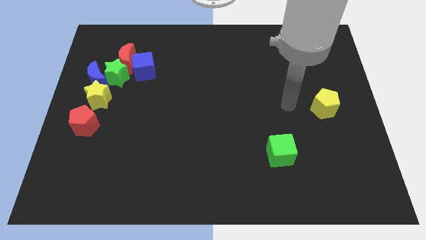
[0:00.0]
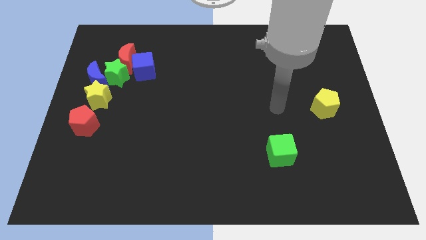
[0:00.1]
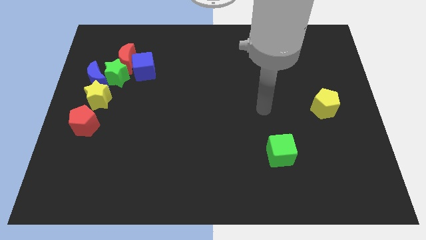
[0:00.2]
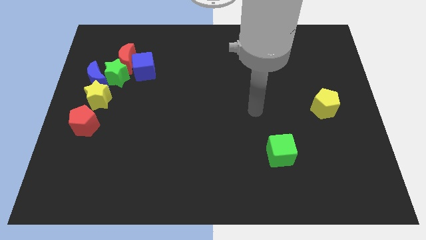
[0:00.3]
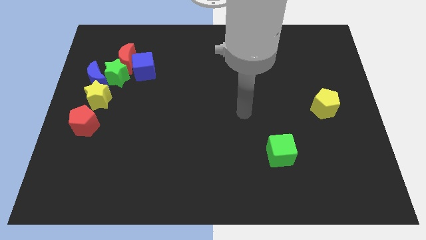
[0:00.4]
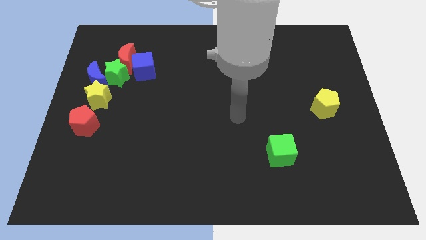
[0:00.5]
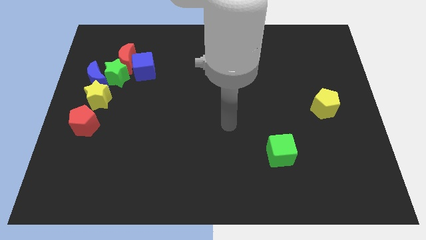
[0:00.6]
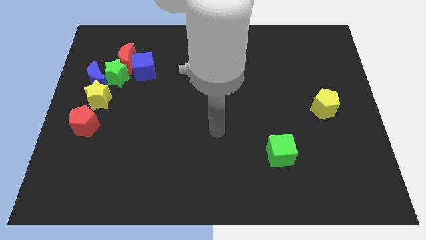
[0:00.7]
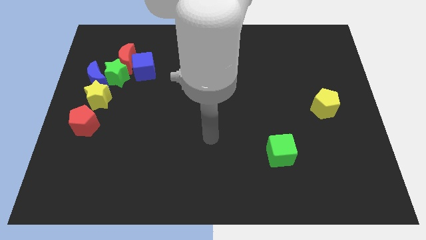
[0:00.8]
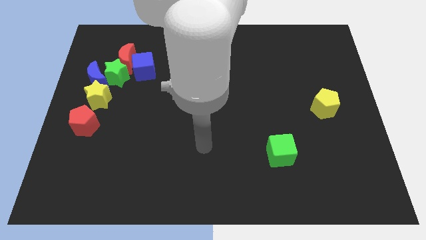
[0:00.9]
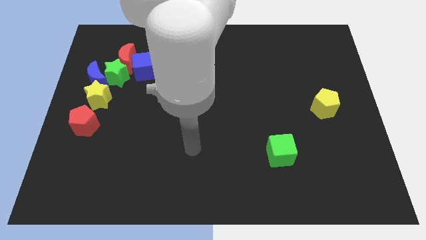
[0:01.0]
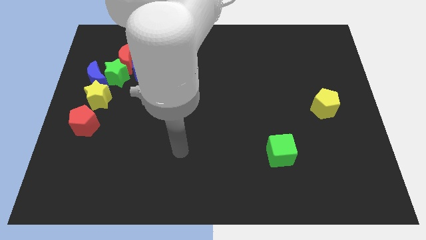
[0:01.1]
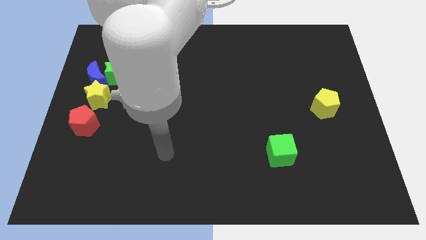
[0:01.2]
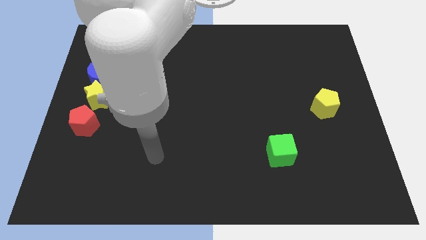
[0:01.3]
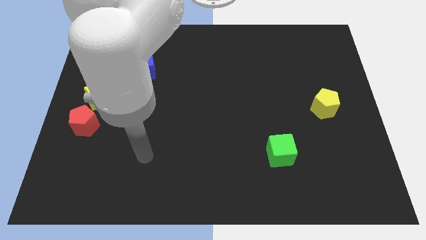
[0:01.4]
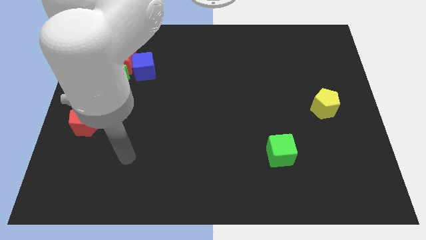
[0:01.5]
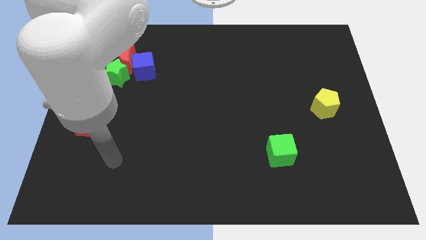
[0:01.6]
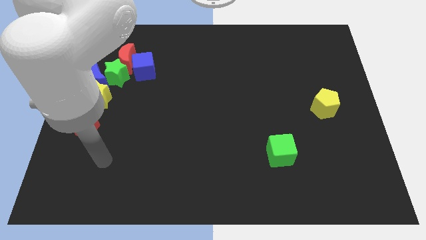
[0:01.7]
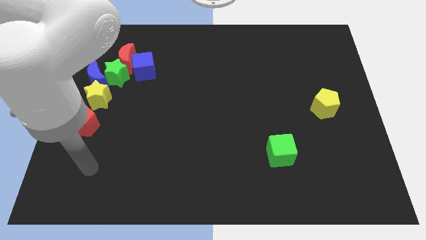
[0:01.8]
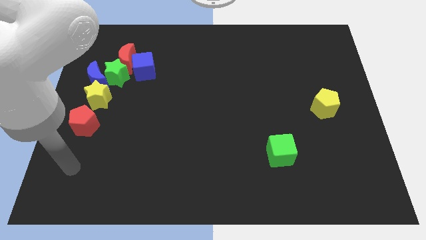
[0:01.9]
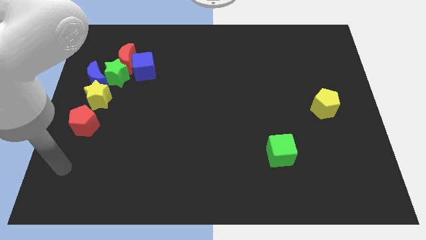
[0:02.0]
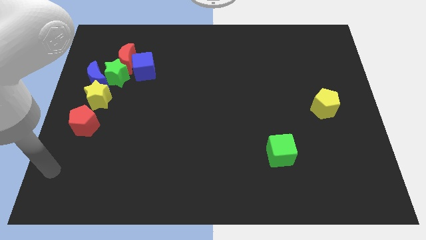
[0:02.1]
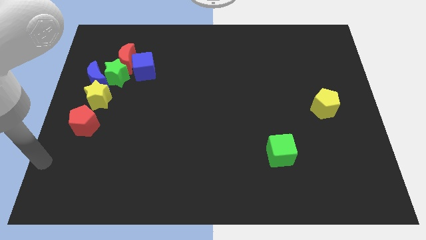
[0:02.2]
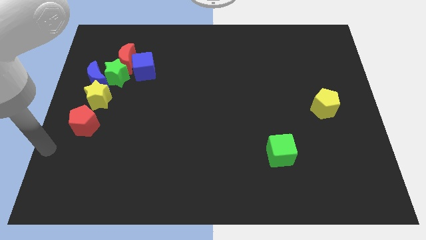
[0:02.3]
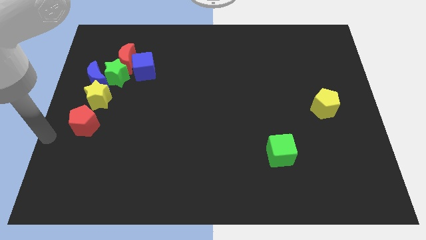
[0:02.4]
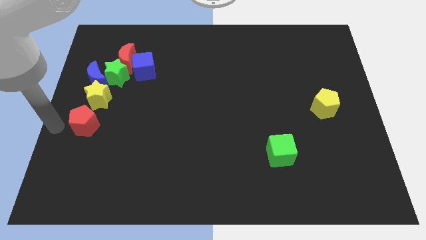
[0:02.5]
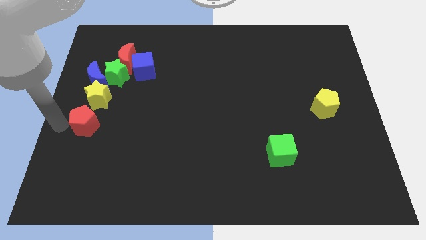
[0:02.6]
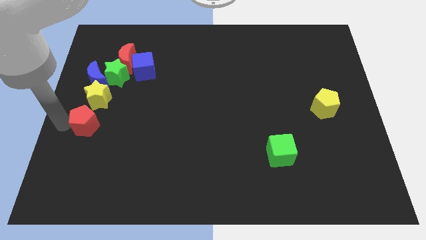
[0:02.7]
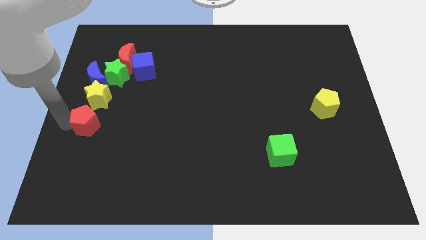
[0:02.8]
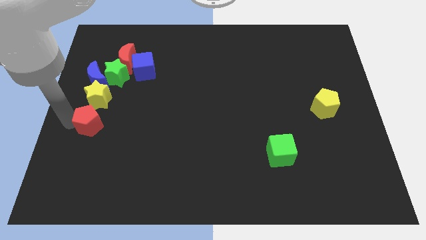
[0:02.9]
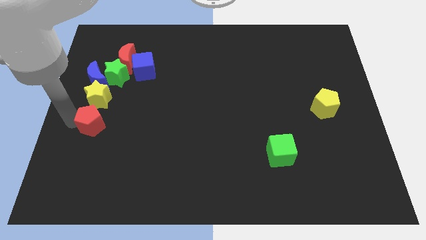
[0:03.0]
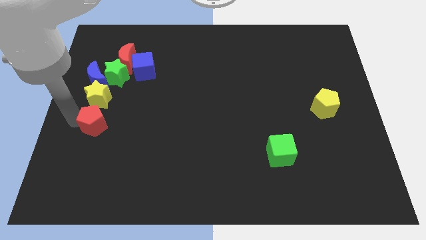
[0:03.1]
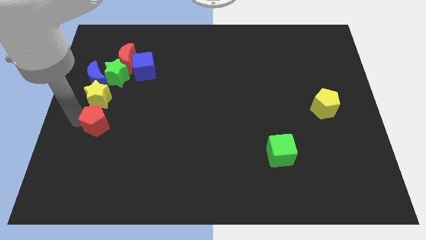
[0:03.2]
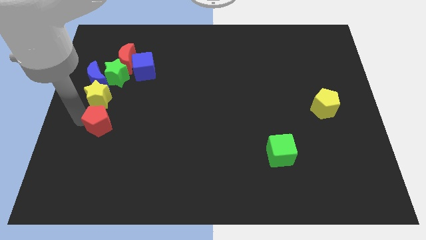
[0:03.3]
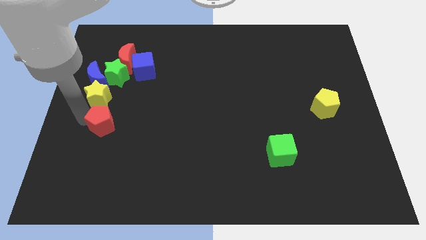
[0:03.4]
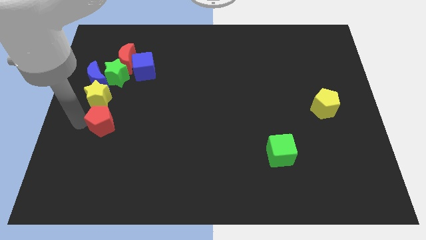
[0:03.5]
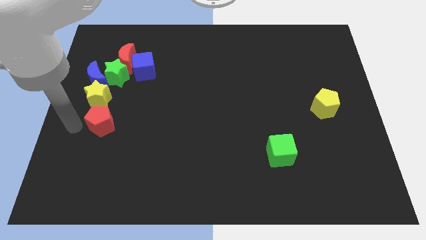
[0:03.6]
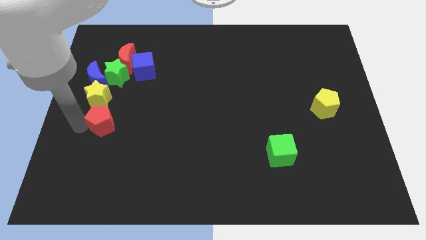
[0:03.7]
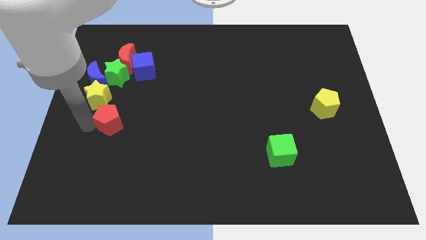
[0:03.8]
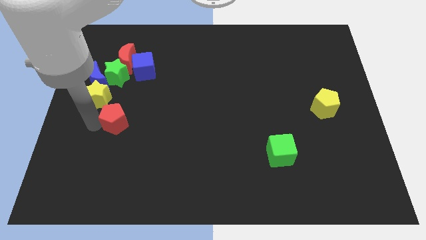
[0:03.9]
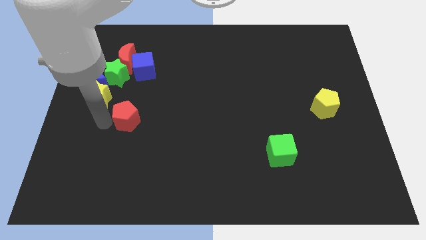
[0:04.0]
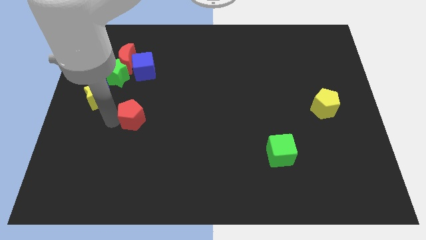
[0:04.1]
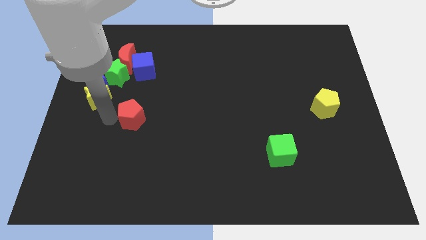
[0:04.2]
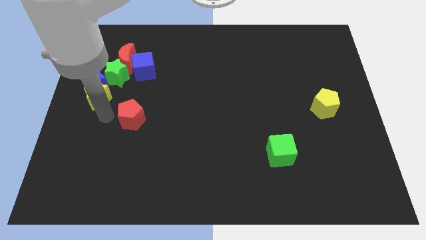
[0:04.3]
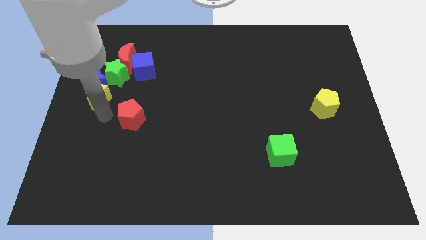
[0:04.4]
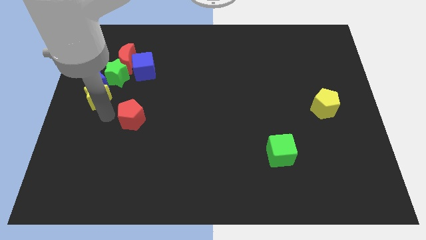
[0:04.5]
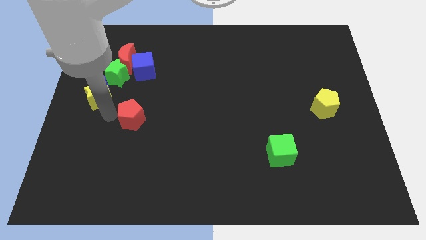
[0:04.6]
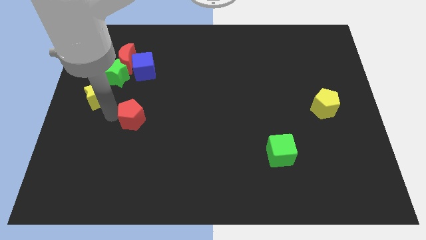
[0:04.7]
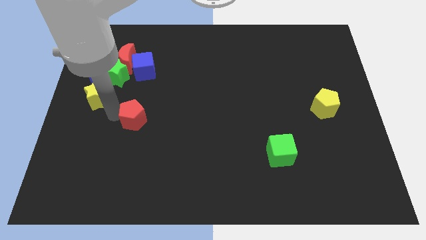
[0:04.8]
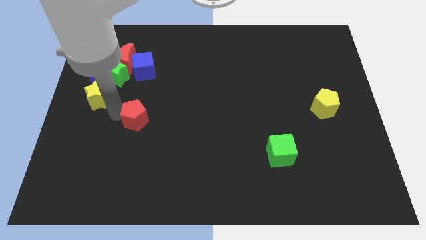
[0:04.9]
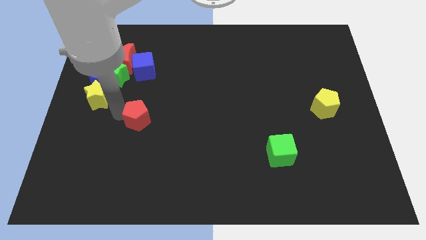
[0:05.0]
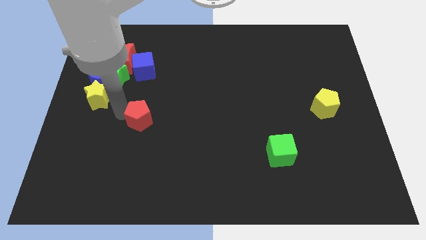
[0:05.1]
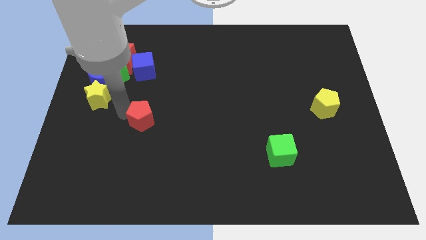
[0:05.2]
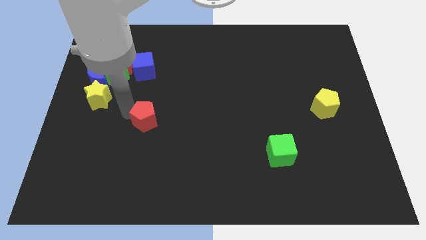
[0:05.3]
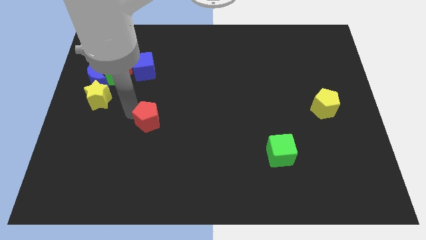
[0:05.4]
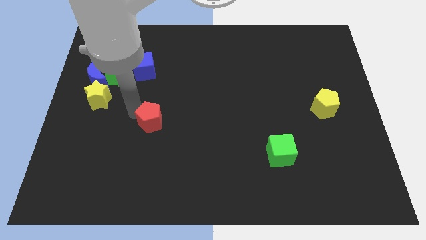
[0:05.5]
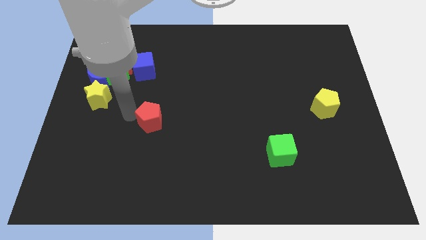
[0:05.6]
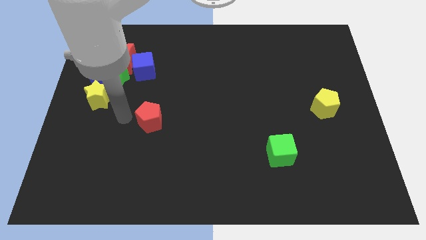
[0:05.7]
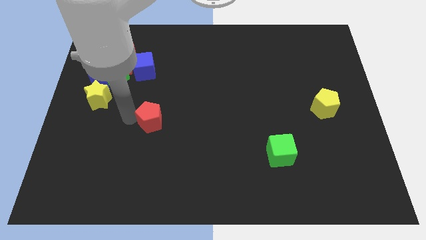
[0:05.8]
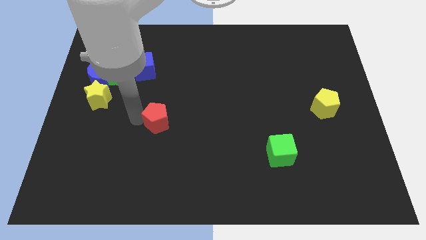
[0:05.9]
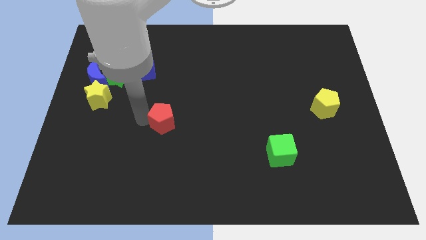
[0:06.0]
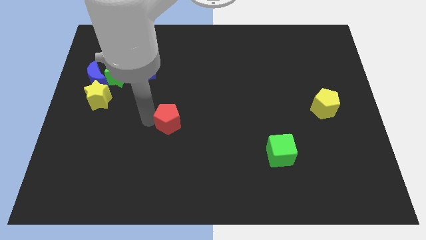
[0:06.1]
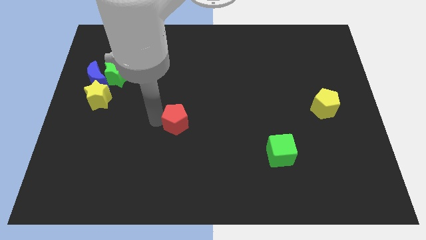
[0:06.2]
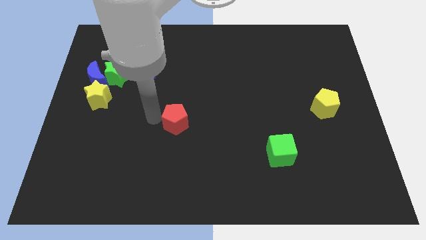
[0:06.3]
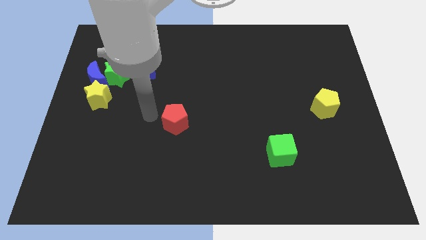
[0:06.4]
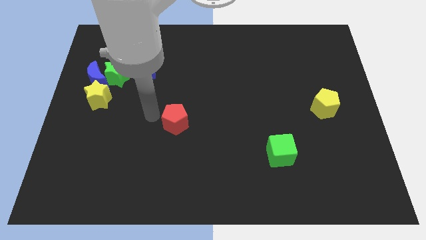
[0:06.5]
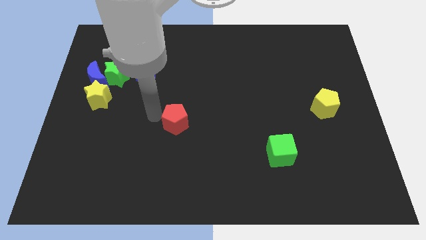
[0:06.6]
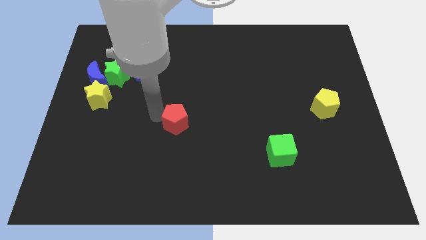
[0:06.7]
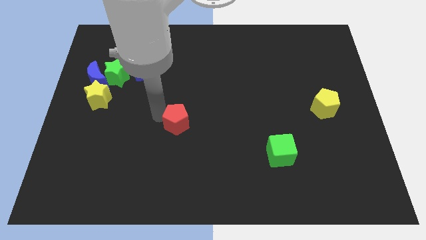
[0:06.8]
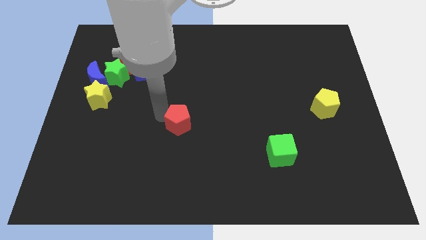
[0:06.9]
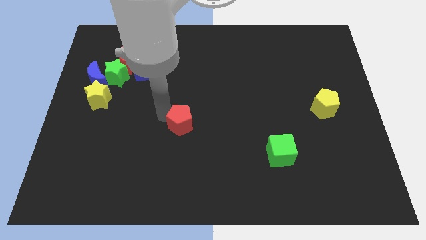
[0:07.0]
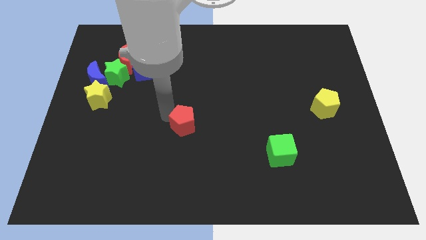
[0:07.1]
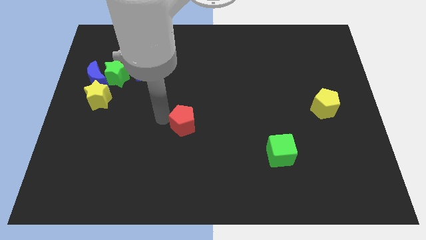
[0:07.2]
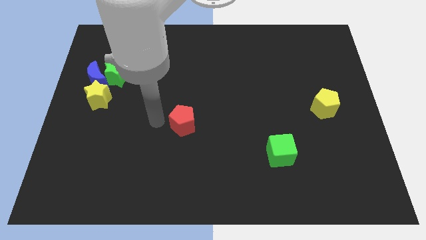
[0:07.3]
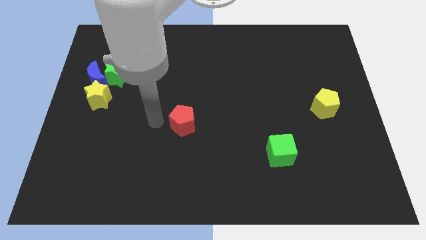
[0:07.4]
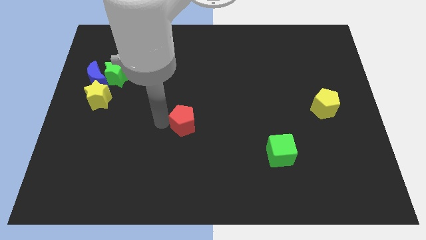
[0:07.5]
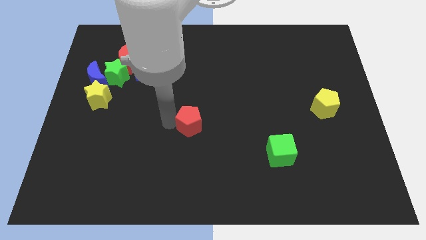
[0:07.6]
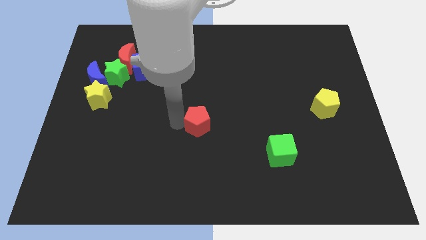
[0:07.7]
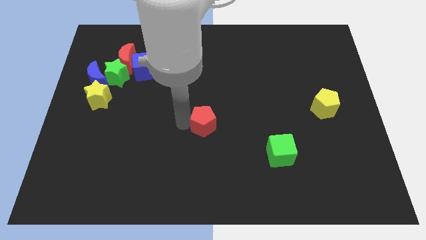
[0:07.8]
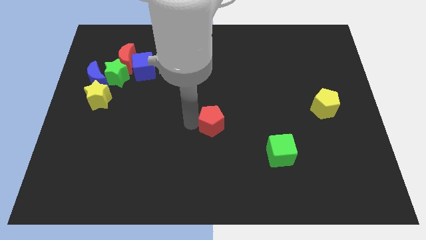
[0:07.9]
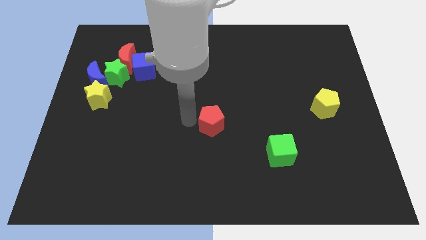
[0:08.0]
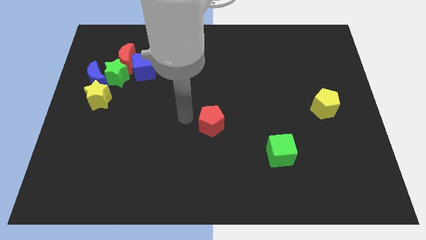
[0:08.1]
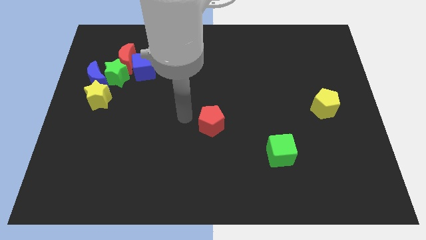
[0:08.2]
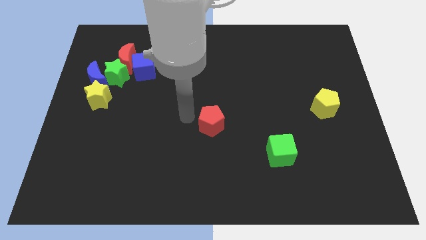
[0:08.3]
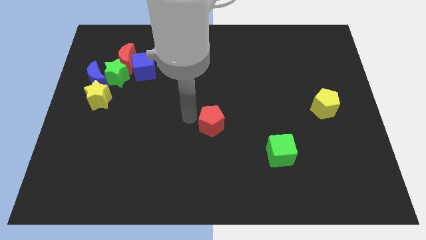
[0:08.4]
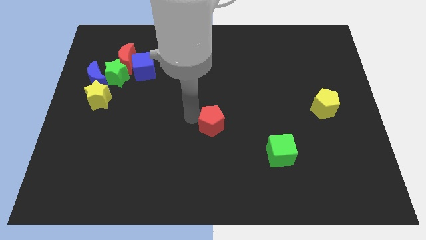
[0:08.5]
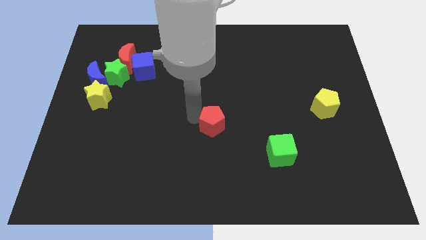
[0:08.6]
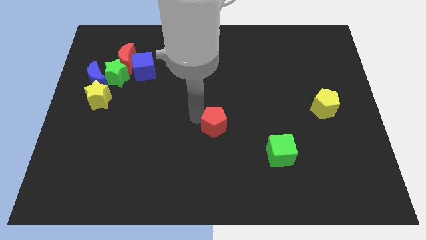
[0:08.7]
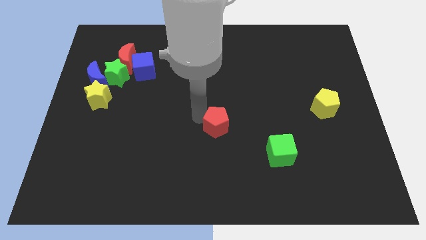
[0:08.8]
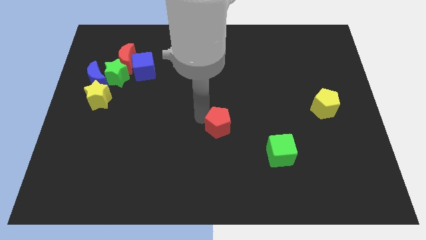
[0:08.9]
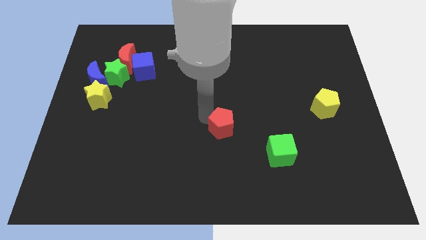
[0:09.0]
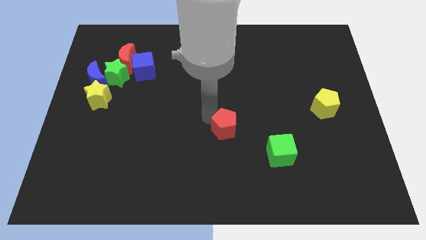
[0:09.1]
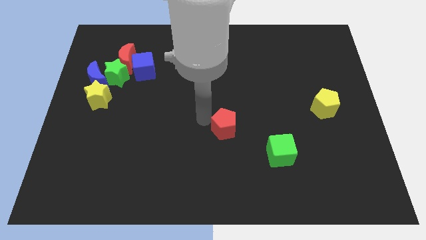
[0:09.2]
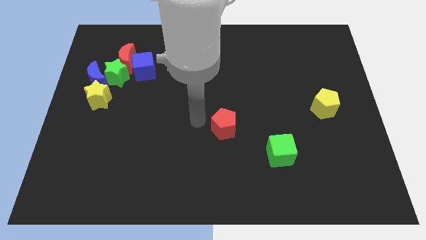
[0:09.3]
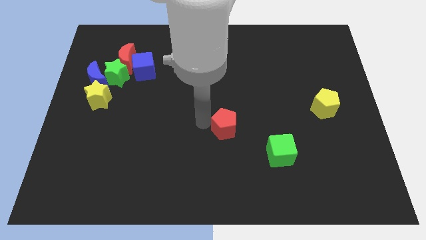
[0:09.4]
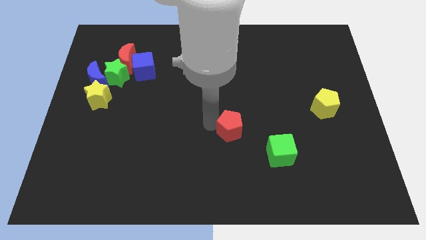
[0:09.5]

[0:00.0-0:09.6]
put the red pentagon diagonally up and to the left of the green cube
